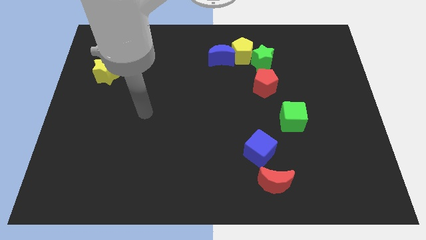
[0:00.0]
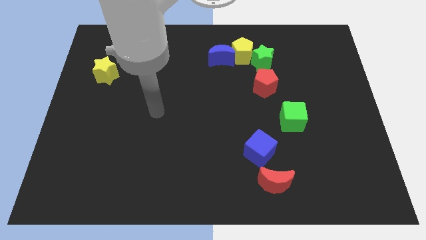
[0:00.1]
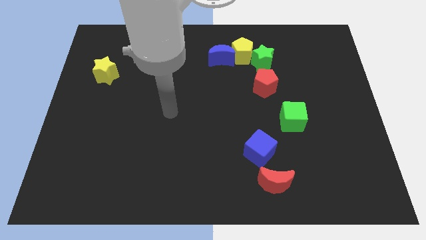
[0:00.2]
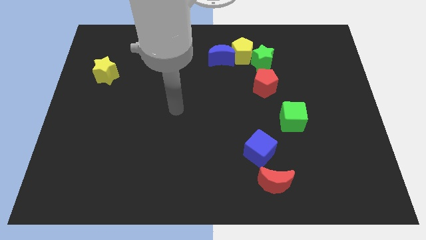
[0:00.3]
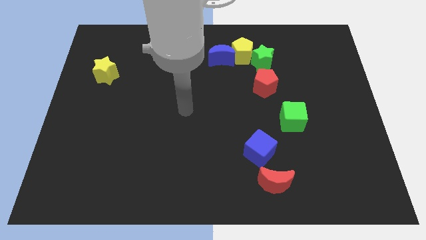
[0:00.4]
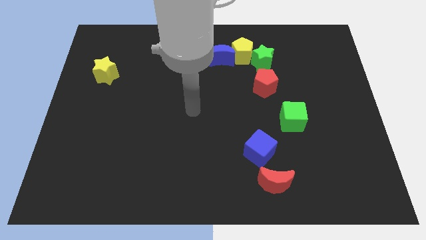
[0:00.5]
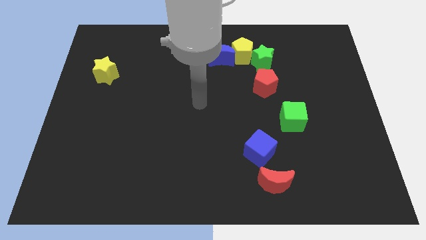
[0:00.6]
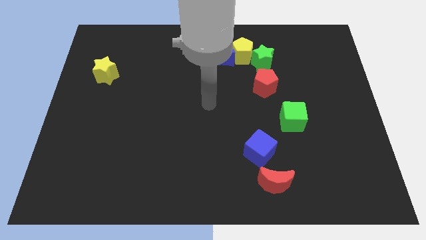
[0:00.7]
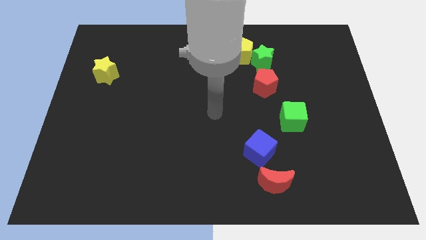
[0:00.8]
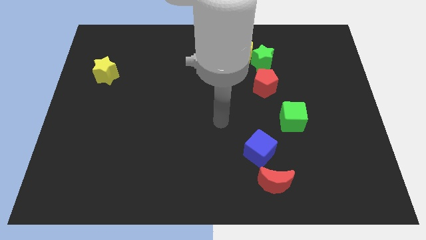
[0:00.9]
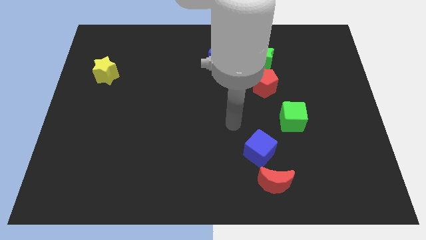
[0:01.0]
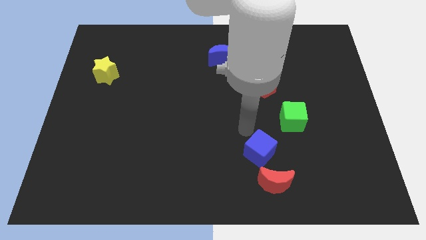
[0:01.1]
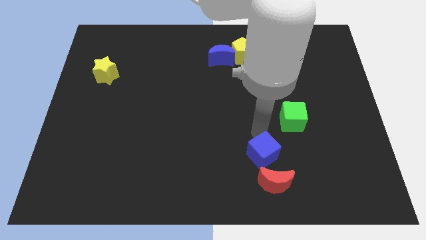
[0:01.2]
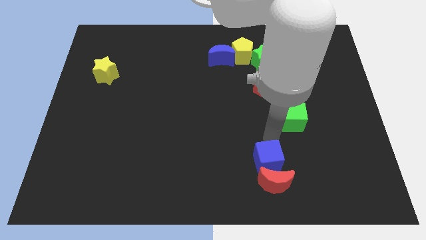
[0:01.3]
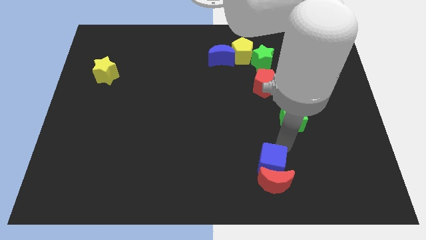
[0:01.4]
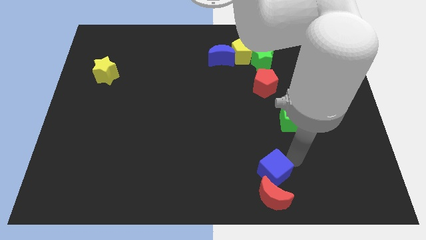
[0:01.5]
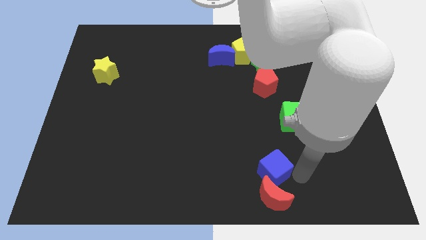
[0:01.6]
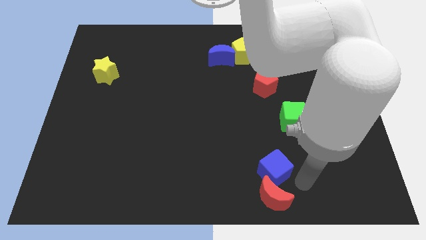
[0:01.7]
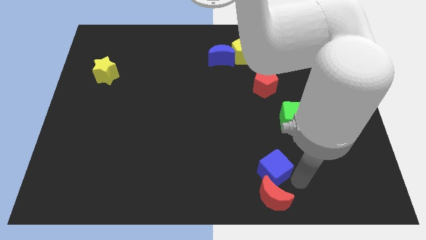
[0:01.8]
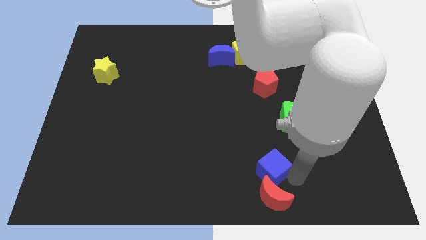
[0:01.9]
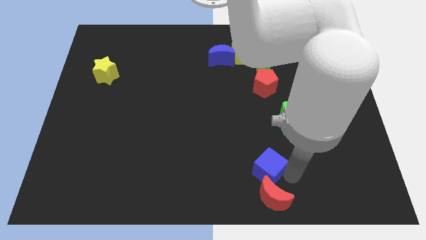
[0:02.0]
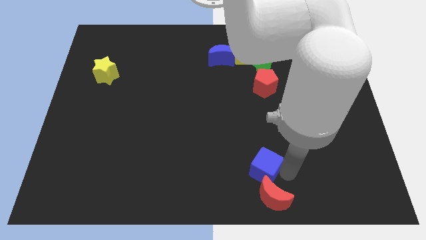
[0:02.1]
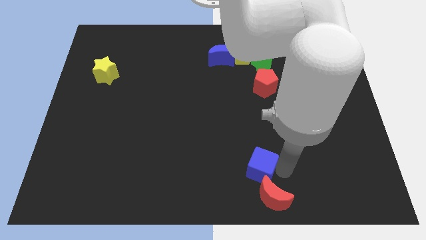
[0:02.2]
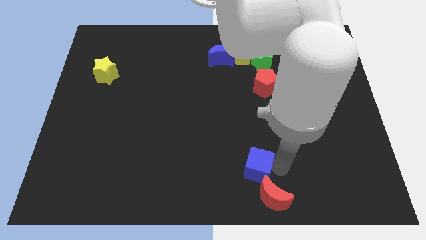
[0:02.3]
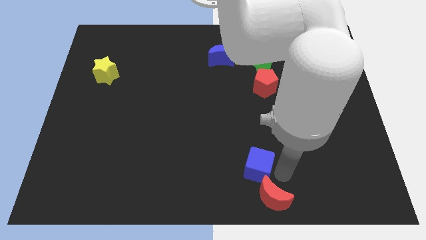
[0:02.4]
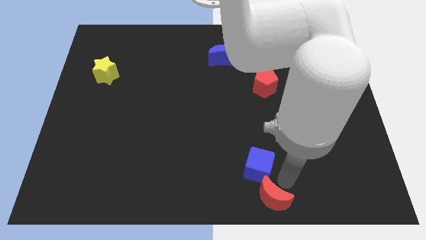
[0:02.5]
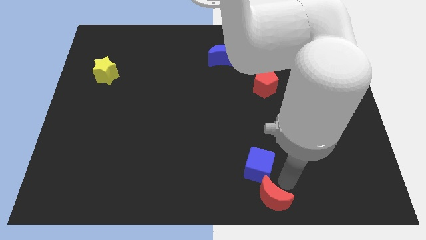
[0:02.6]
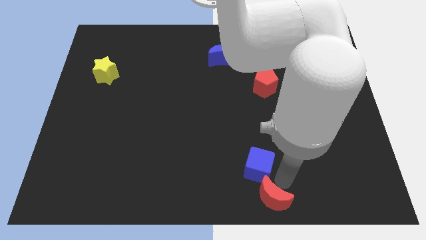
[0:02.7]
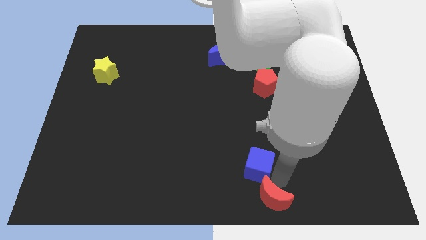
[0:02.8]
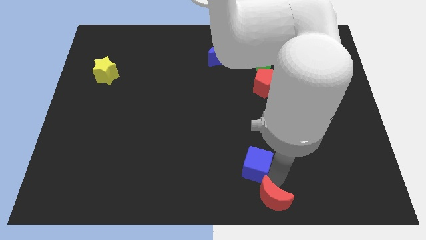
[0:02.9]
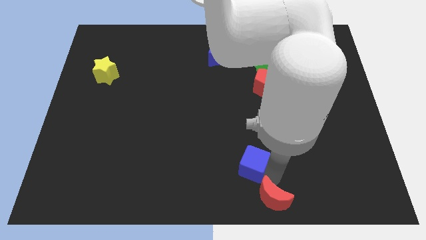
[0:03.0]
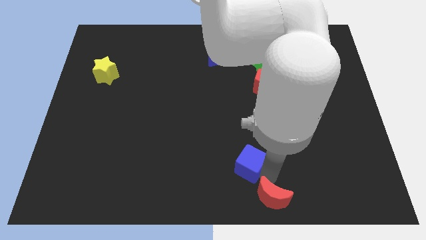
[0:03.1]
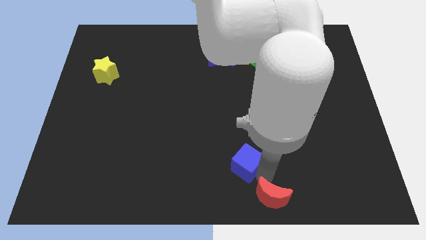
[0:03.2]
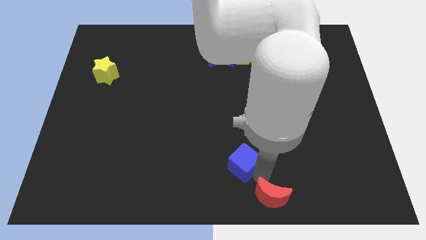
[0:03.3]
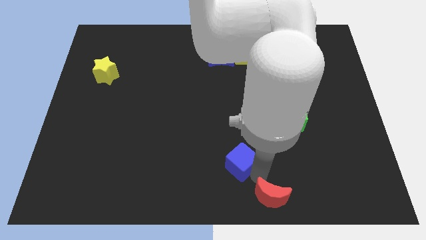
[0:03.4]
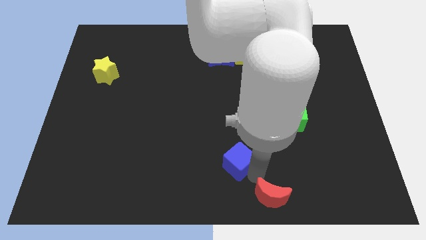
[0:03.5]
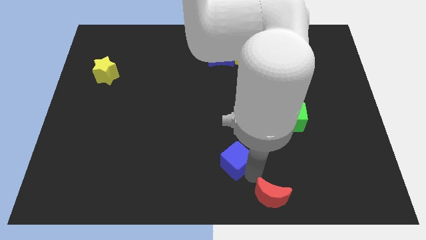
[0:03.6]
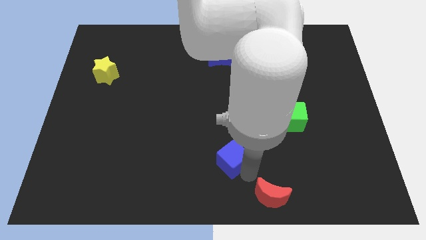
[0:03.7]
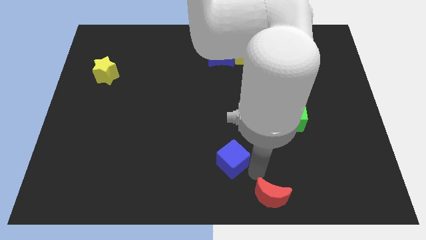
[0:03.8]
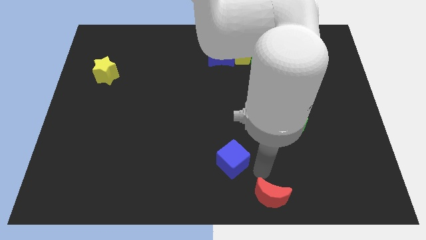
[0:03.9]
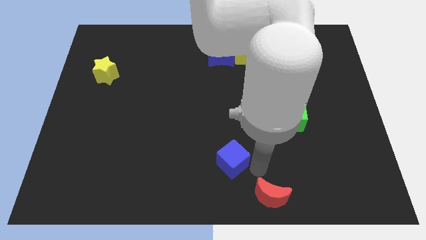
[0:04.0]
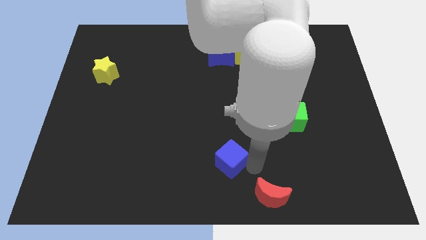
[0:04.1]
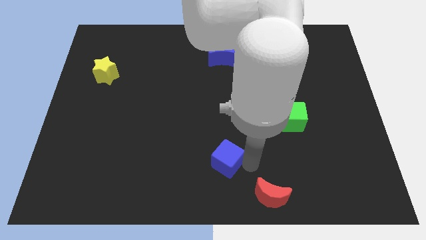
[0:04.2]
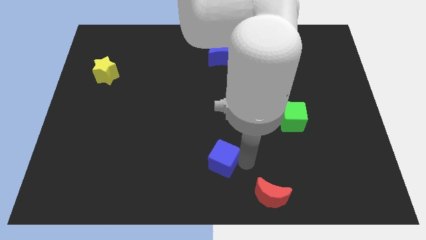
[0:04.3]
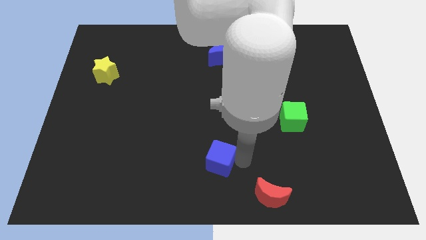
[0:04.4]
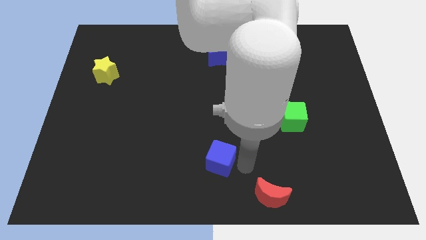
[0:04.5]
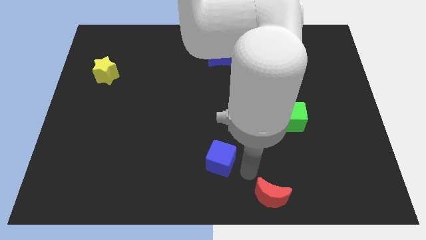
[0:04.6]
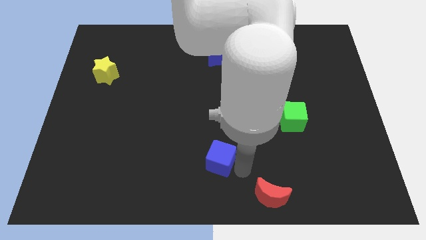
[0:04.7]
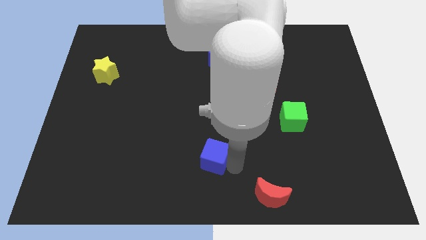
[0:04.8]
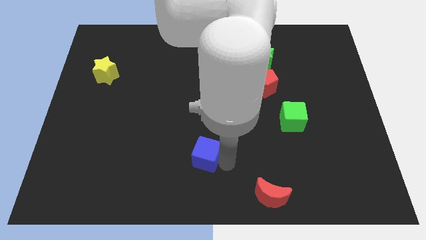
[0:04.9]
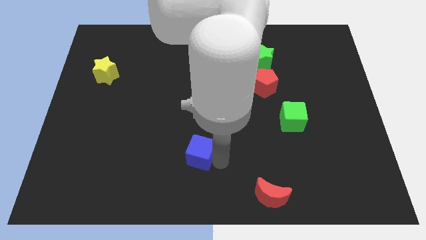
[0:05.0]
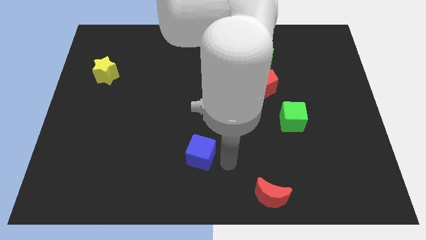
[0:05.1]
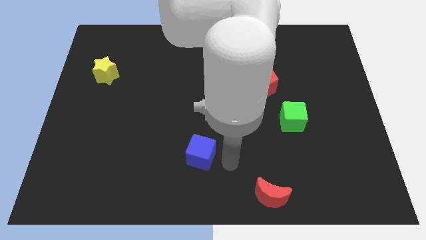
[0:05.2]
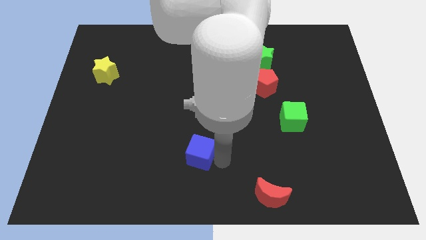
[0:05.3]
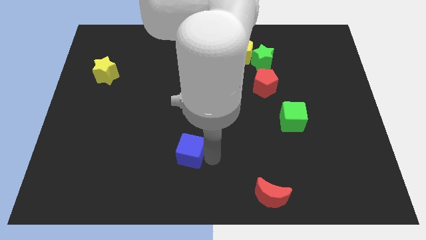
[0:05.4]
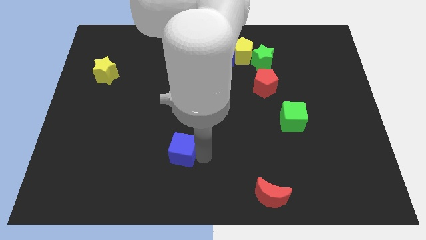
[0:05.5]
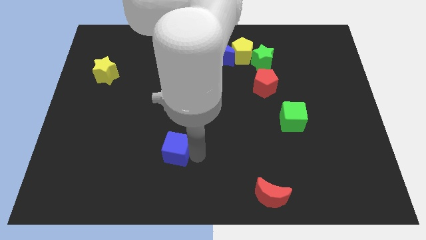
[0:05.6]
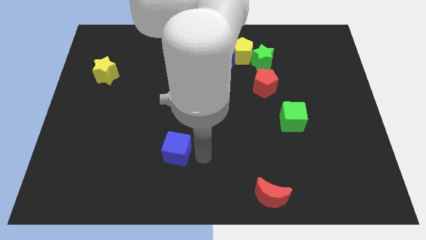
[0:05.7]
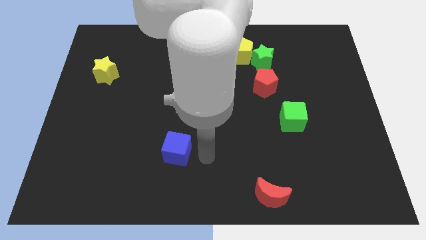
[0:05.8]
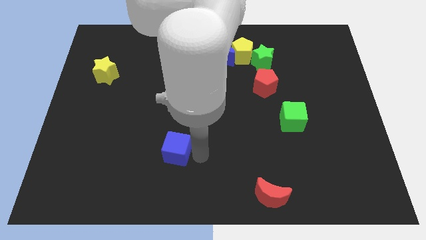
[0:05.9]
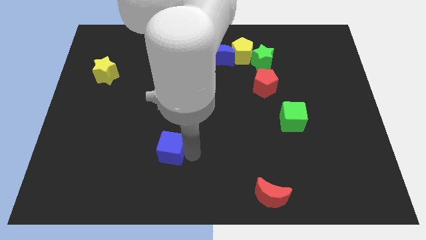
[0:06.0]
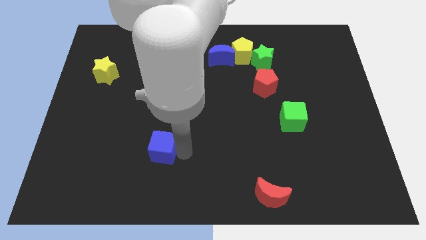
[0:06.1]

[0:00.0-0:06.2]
push the blue cube left

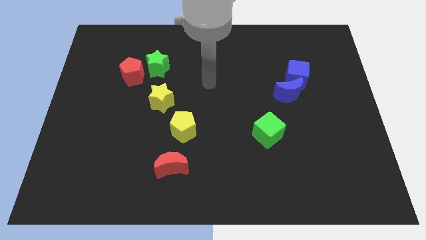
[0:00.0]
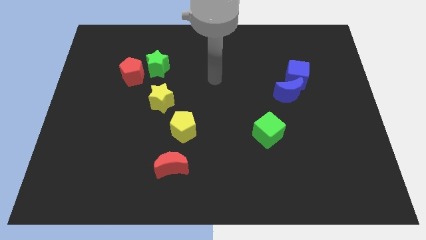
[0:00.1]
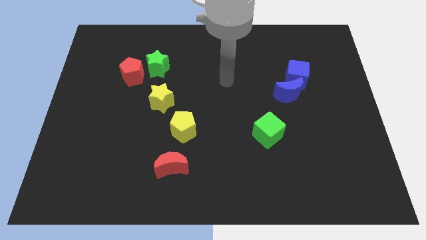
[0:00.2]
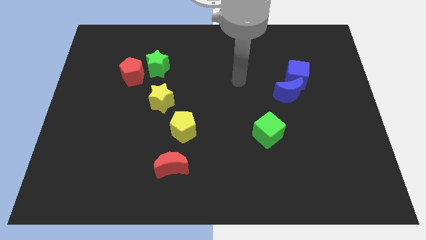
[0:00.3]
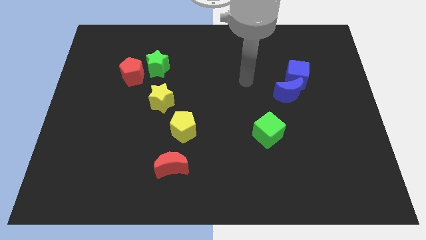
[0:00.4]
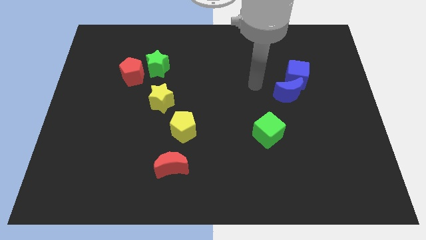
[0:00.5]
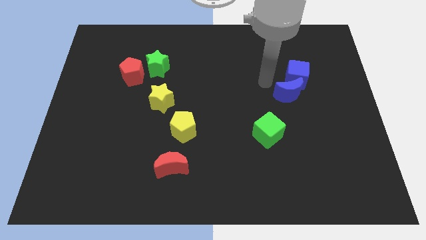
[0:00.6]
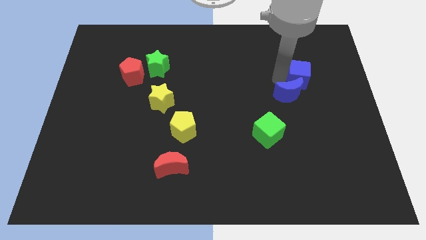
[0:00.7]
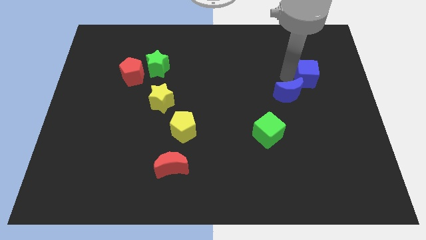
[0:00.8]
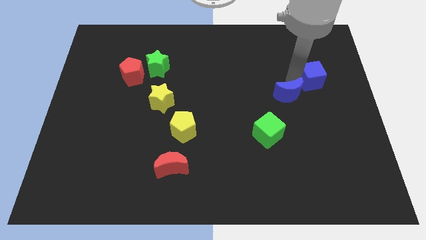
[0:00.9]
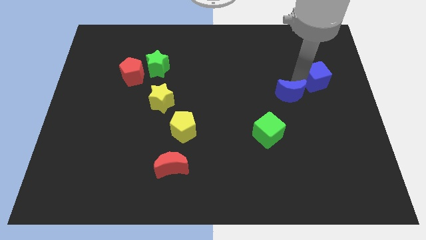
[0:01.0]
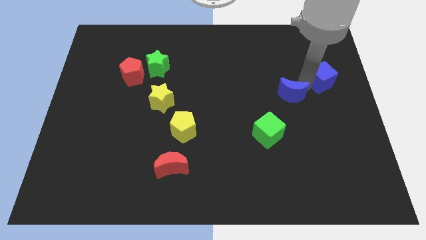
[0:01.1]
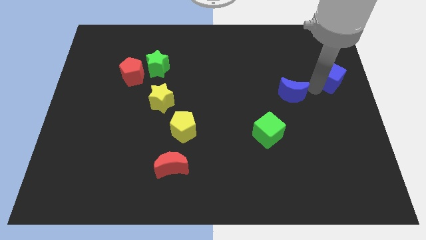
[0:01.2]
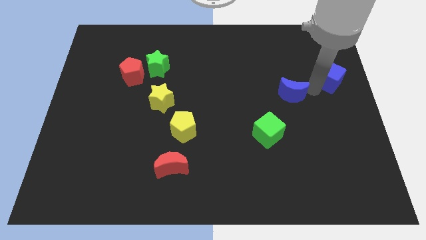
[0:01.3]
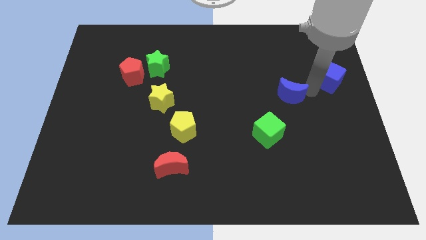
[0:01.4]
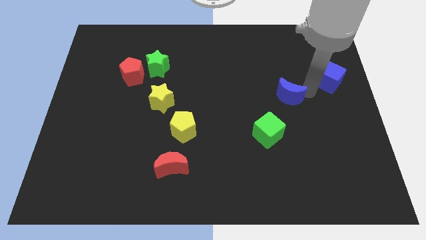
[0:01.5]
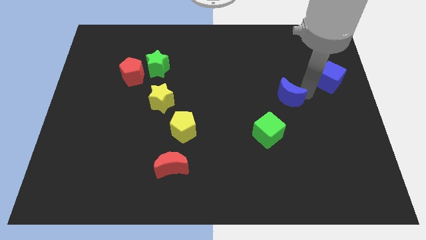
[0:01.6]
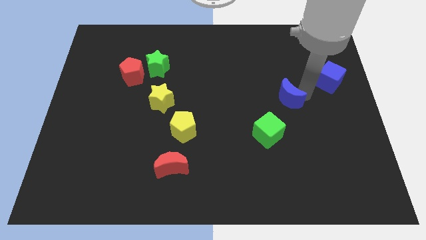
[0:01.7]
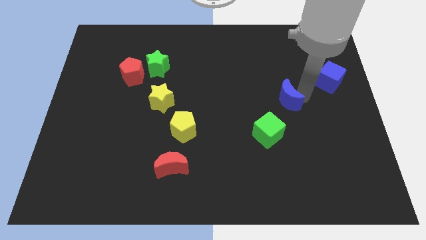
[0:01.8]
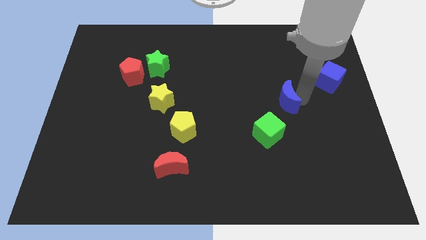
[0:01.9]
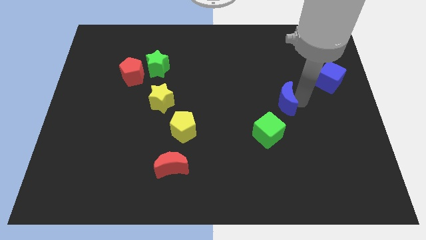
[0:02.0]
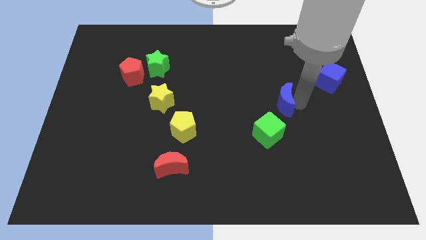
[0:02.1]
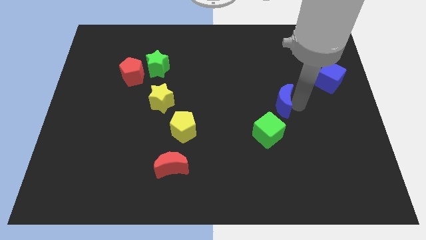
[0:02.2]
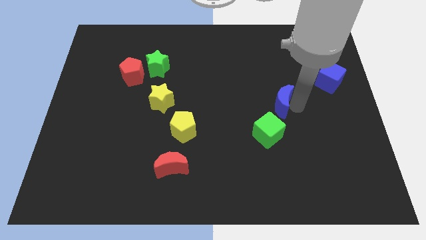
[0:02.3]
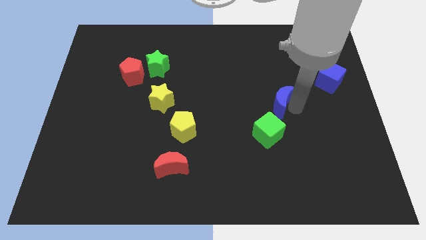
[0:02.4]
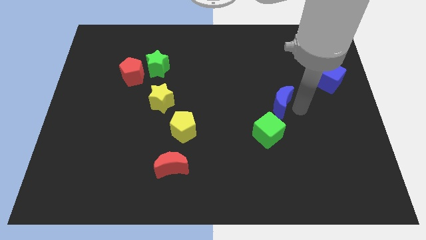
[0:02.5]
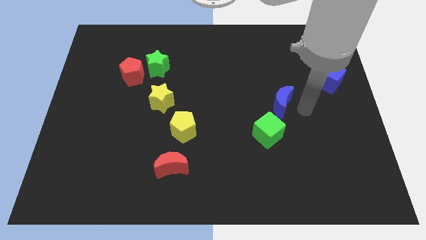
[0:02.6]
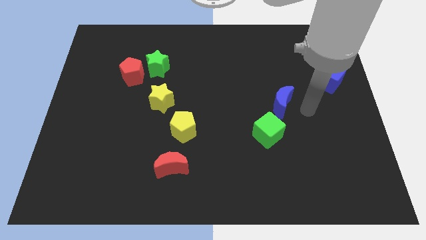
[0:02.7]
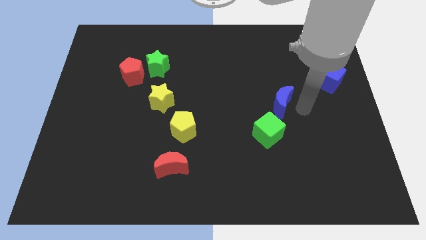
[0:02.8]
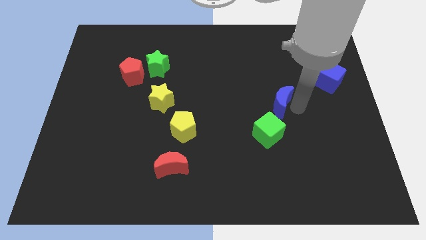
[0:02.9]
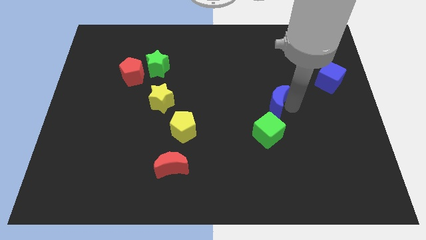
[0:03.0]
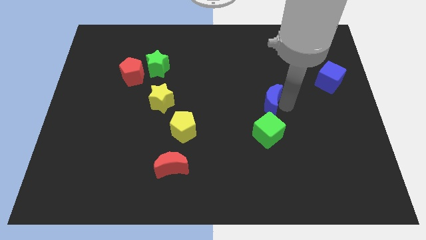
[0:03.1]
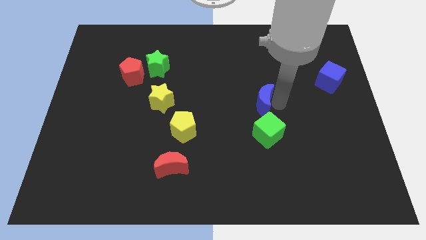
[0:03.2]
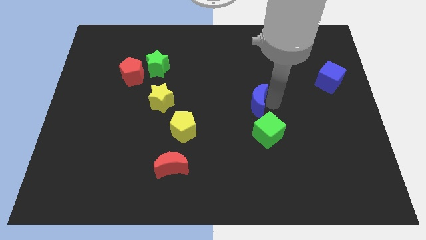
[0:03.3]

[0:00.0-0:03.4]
move the blue moon a little to the left
